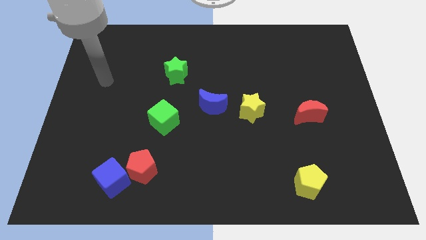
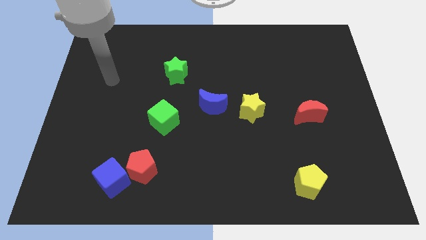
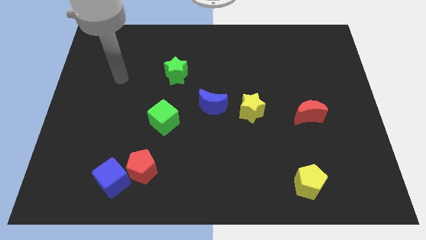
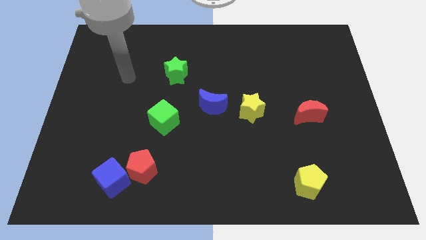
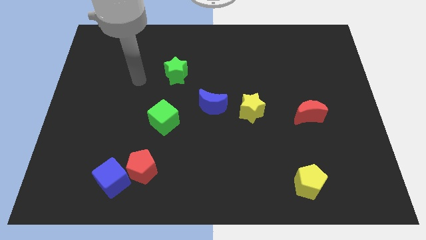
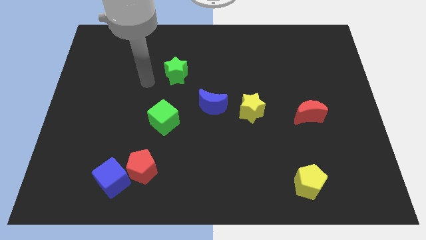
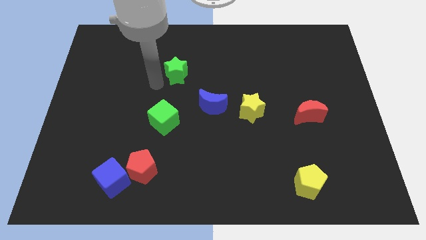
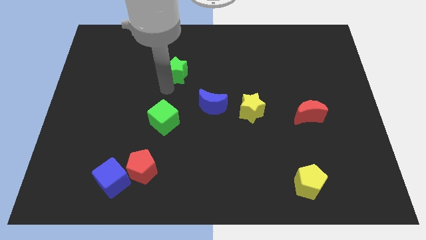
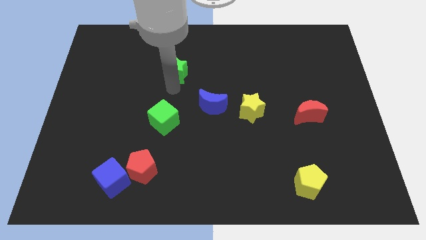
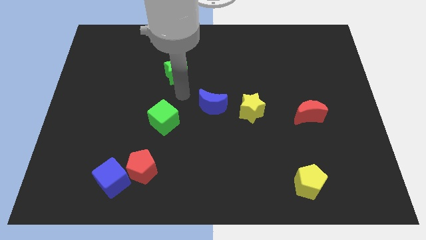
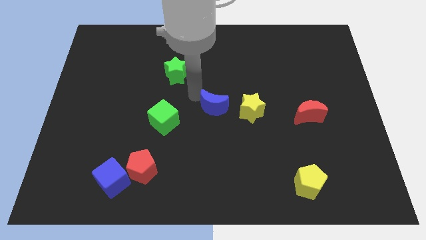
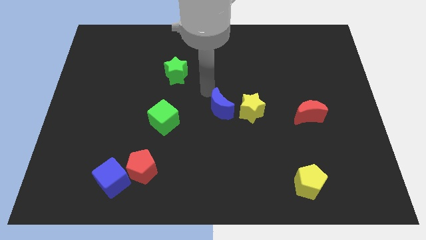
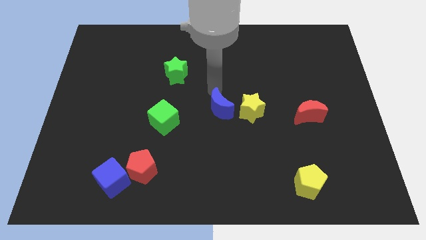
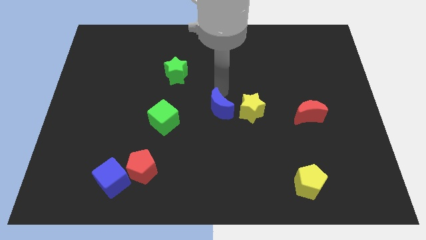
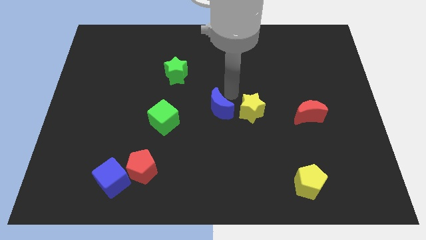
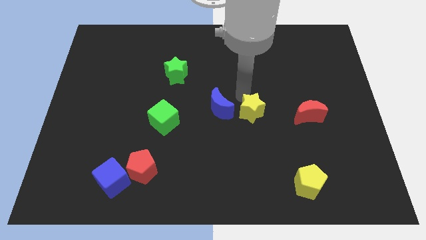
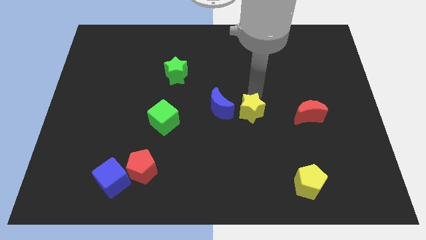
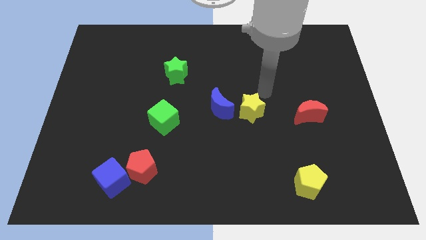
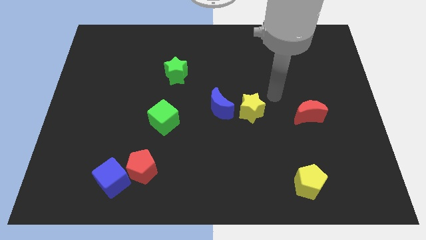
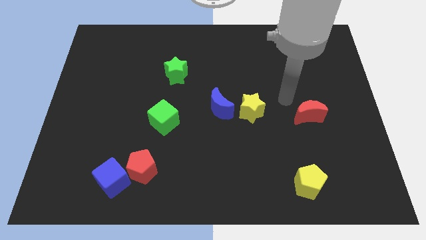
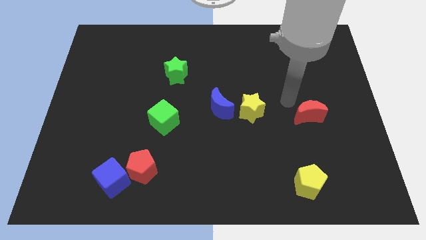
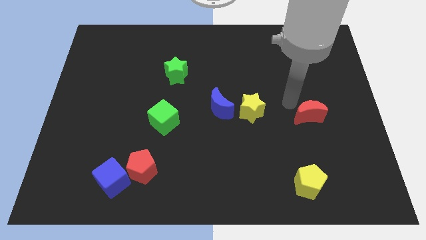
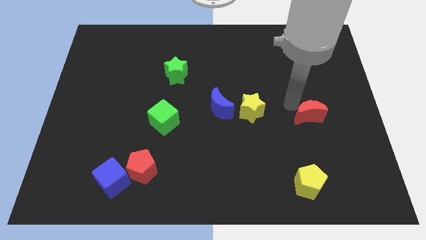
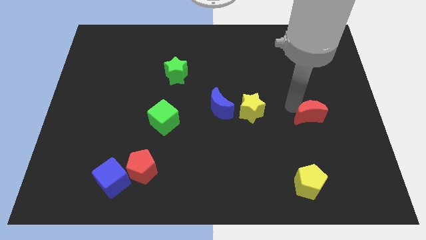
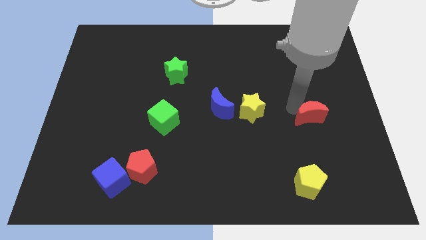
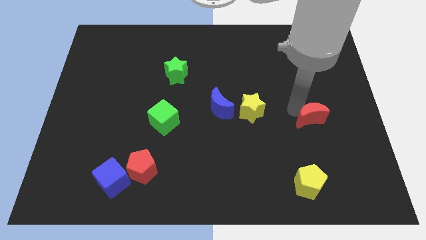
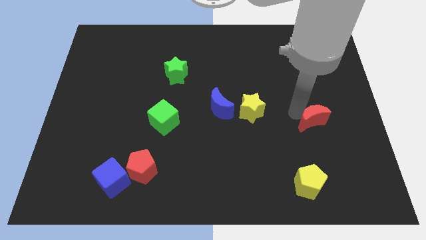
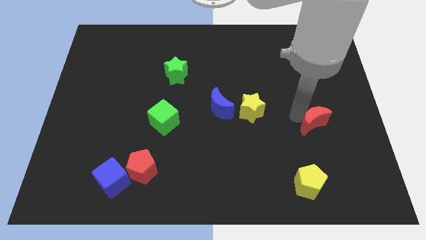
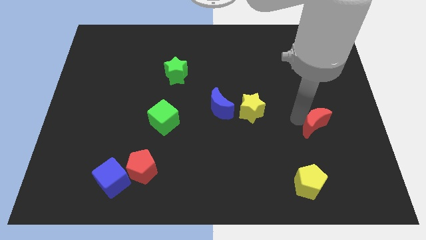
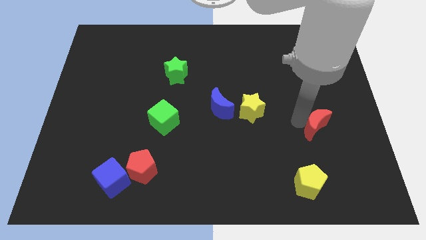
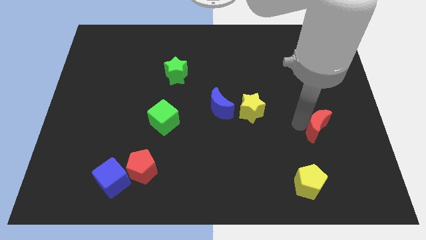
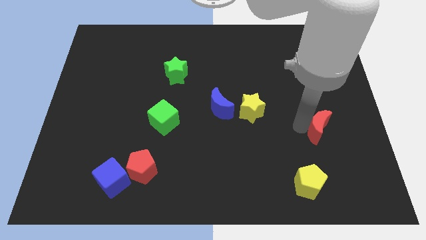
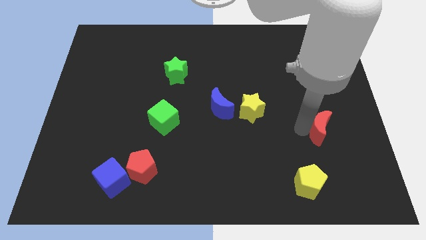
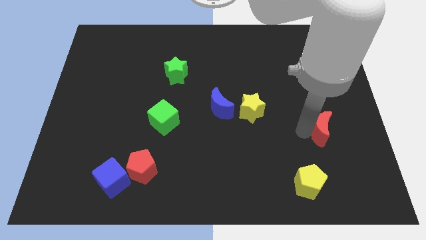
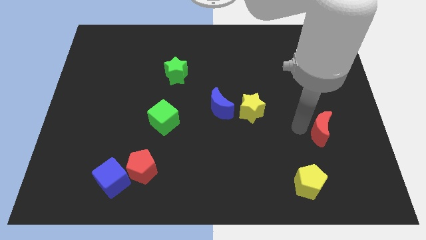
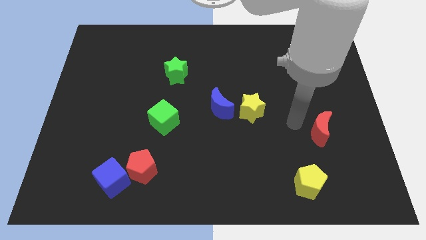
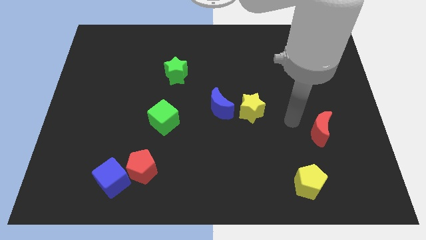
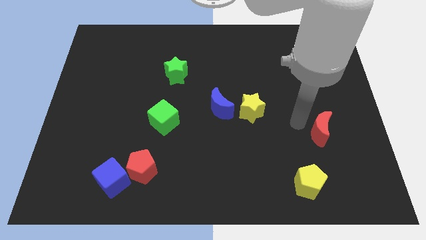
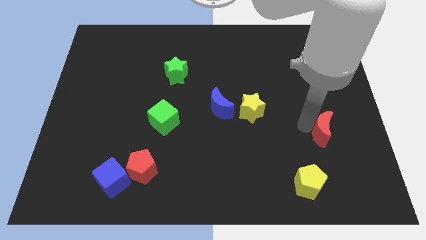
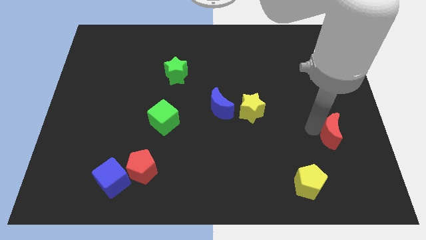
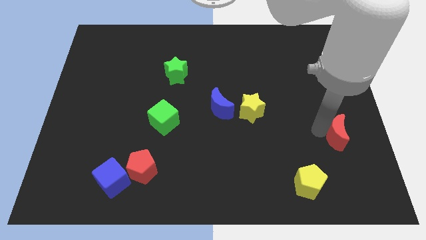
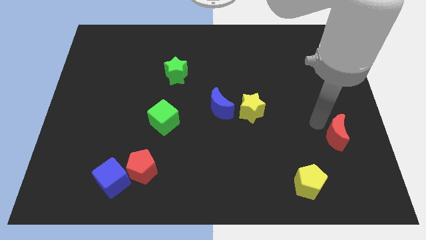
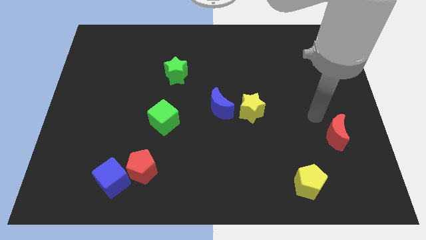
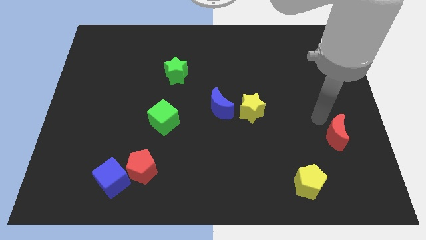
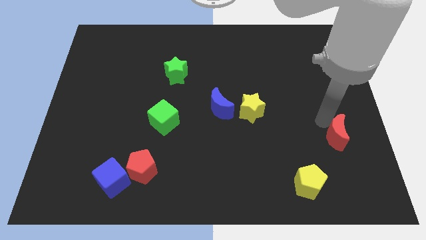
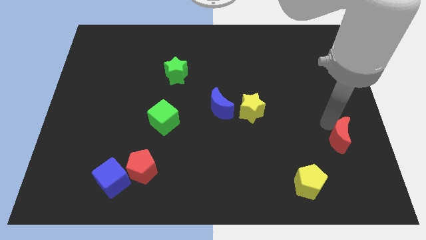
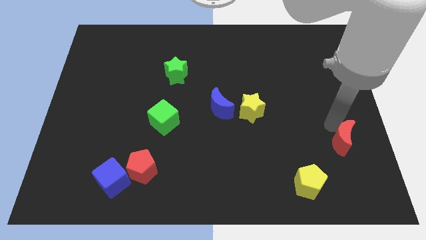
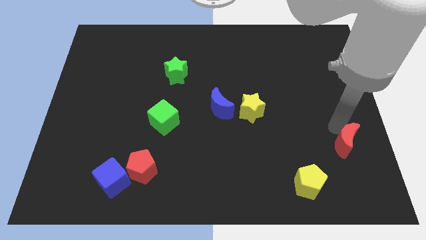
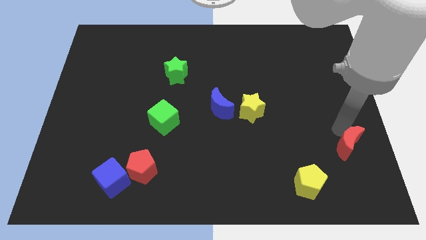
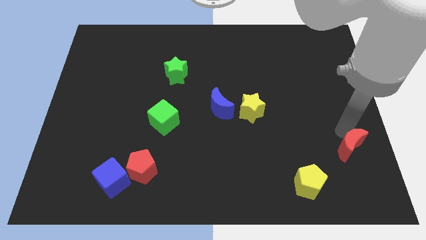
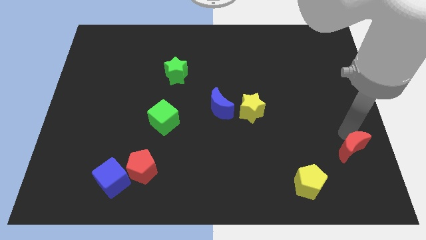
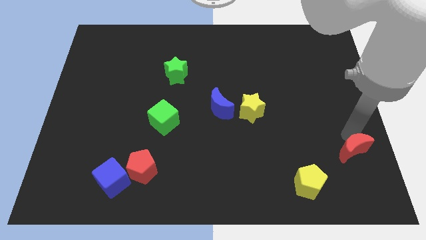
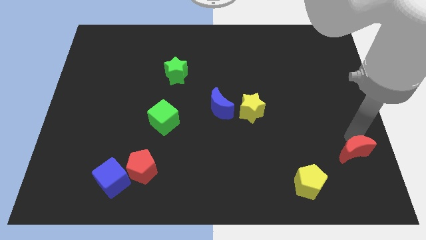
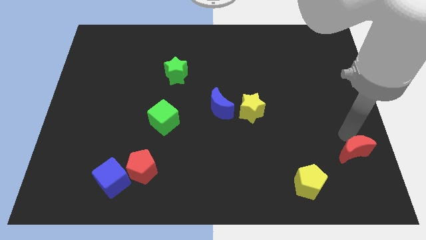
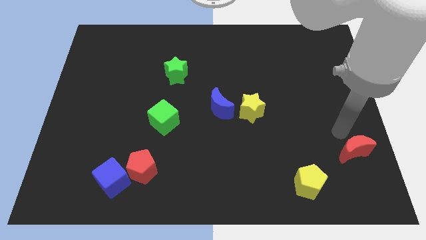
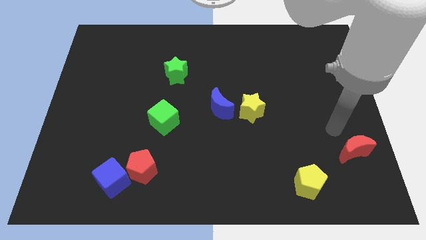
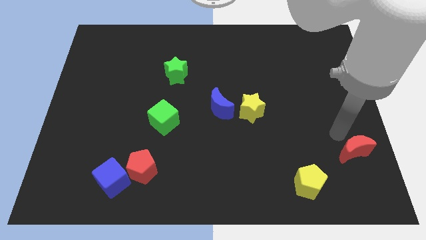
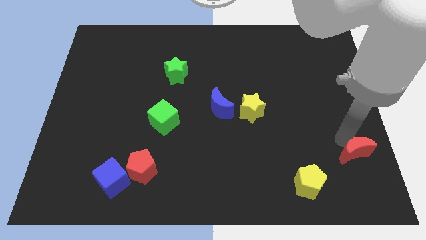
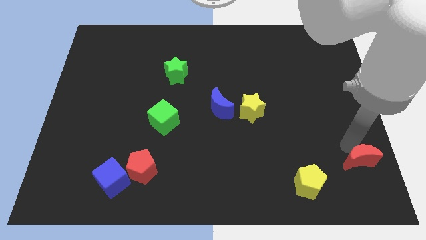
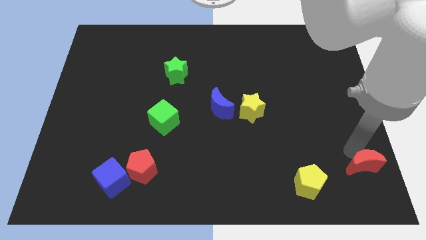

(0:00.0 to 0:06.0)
push the red moon to the bottom right
